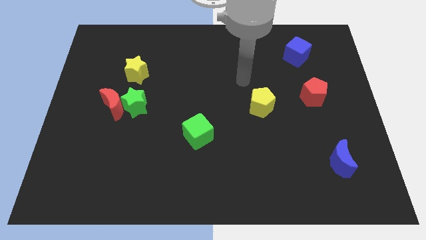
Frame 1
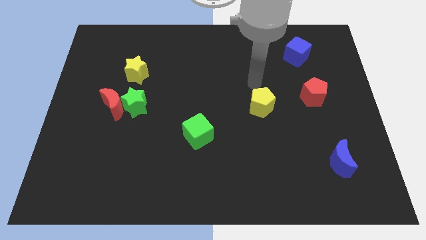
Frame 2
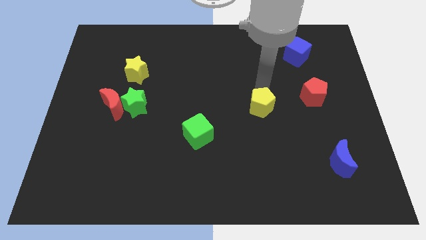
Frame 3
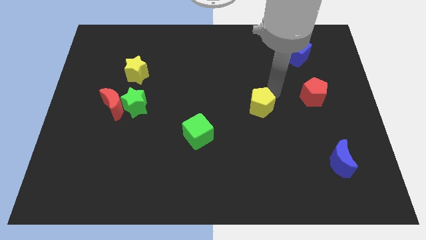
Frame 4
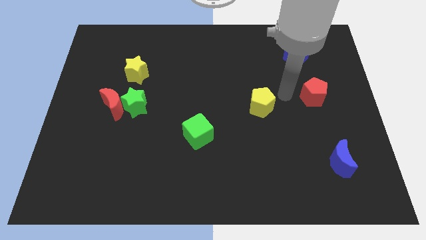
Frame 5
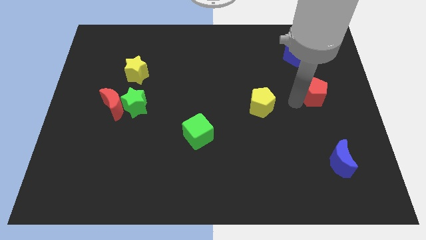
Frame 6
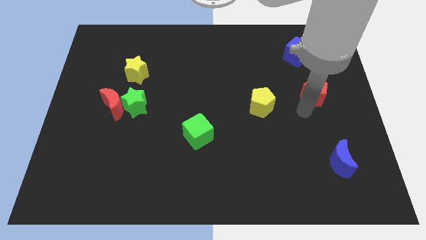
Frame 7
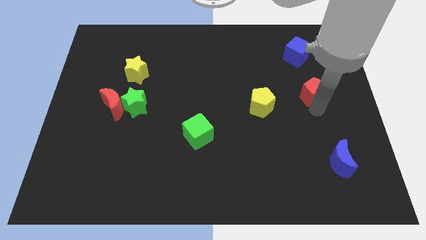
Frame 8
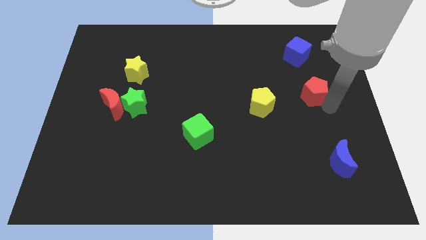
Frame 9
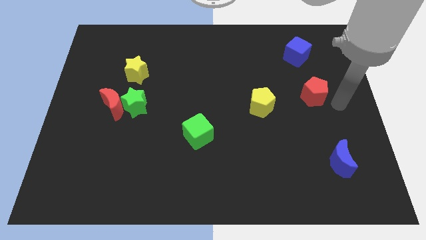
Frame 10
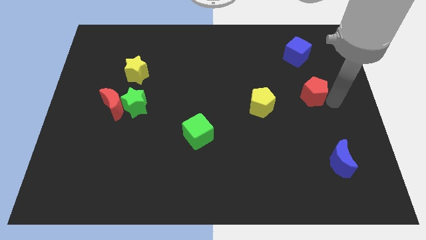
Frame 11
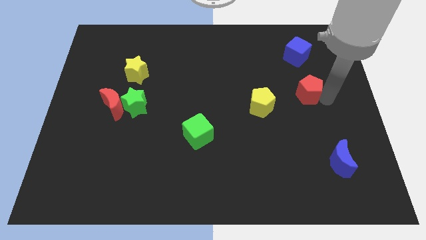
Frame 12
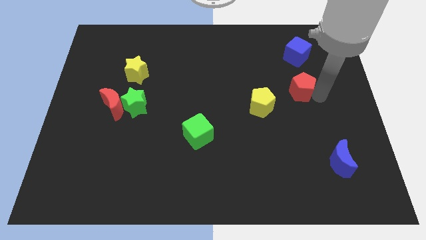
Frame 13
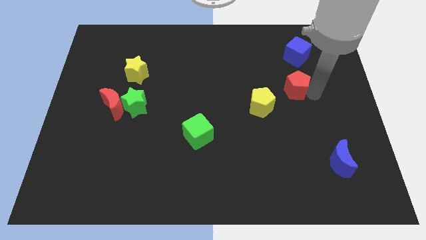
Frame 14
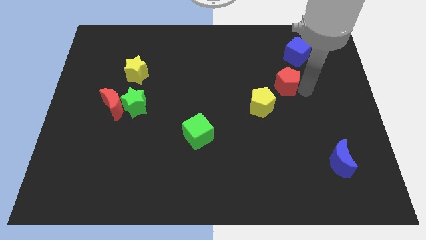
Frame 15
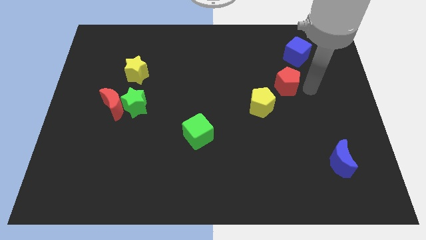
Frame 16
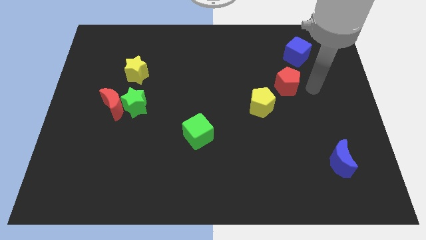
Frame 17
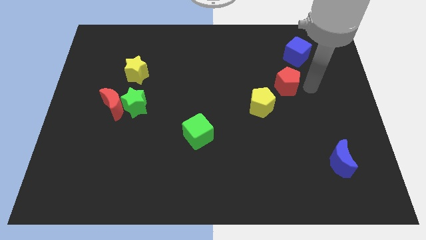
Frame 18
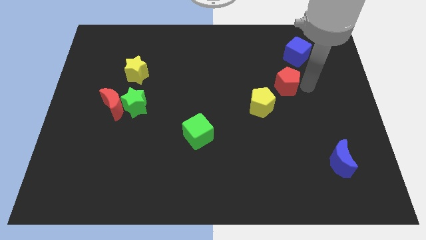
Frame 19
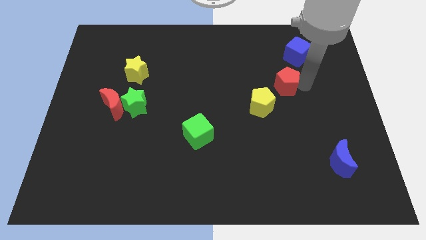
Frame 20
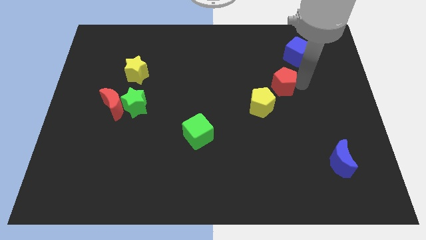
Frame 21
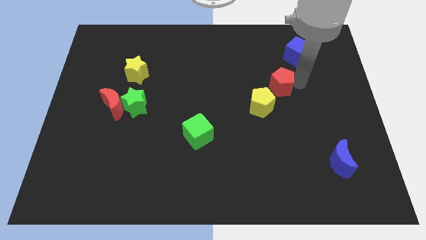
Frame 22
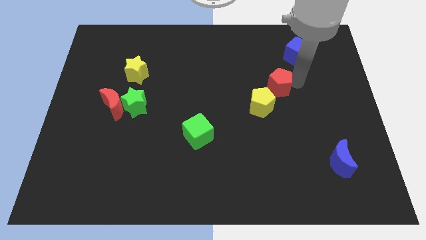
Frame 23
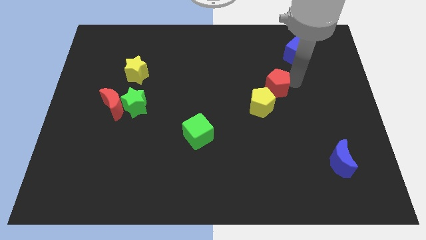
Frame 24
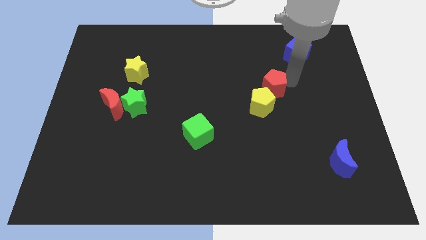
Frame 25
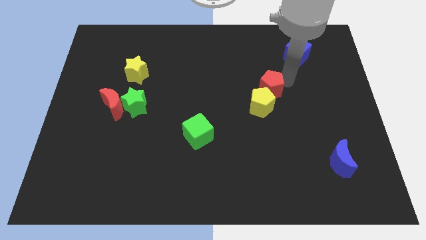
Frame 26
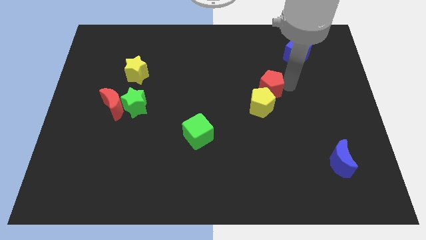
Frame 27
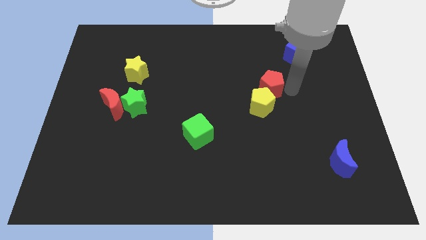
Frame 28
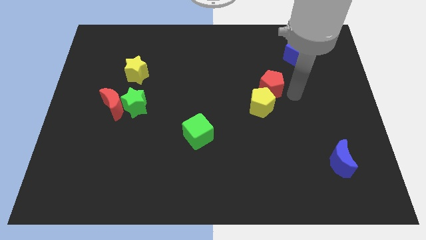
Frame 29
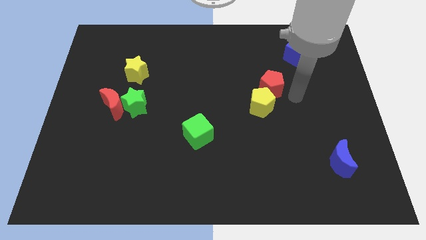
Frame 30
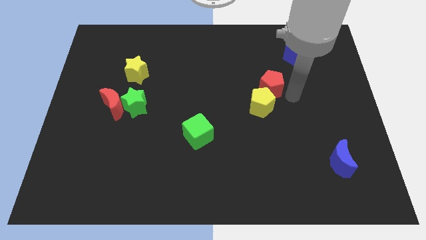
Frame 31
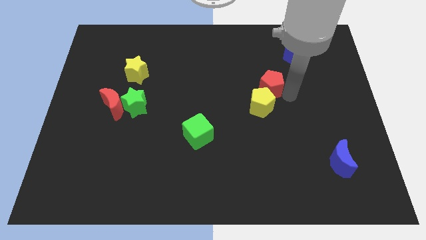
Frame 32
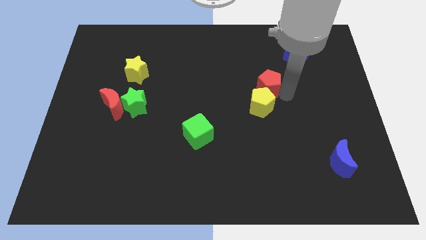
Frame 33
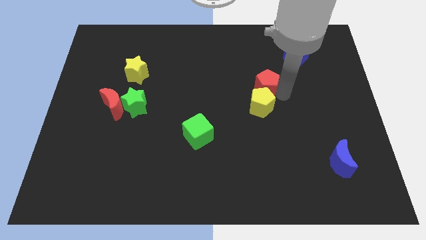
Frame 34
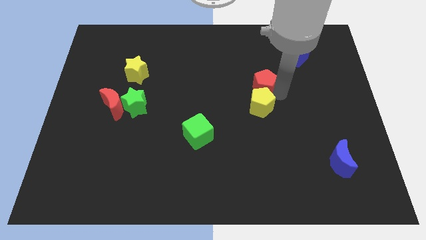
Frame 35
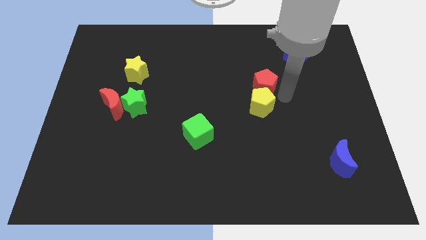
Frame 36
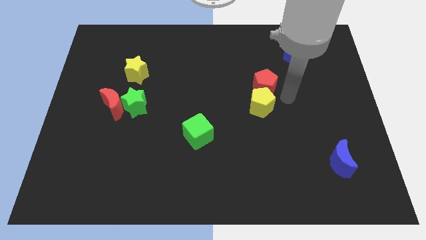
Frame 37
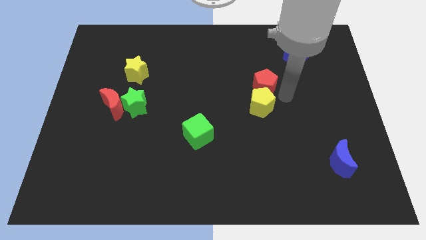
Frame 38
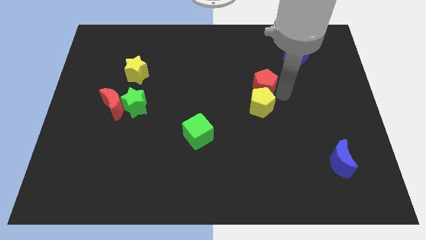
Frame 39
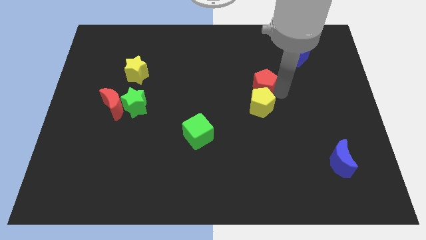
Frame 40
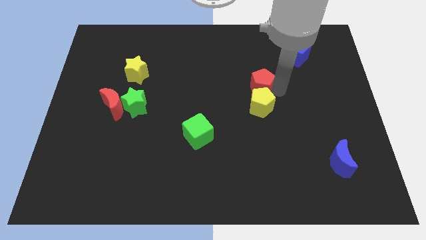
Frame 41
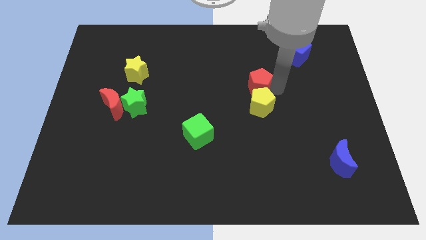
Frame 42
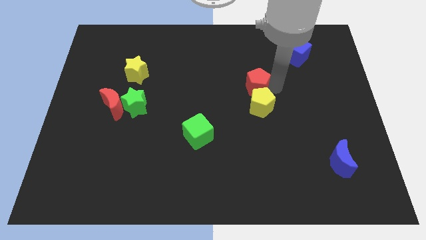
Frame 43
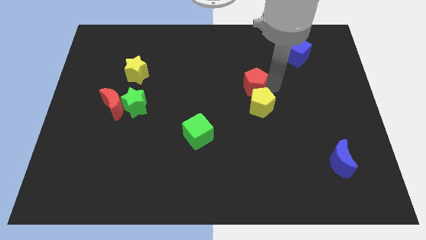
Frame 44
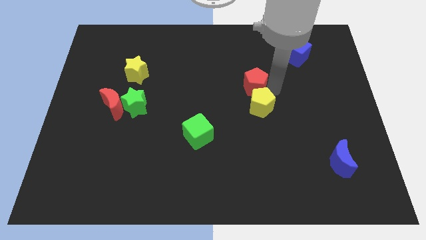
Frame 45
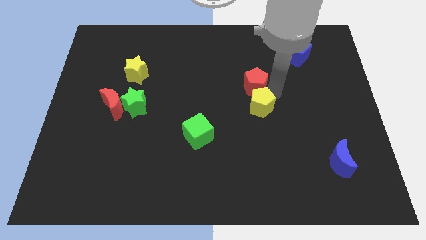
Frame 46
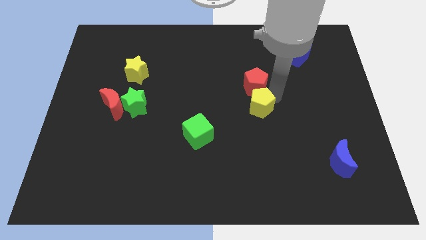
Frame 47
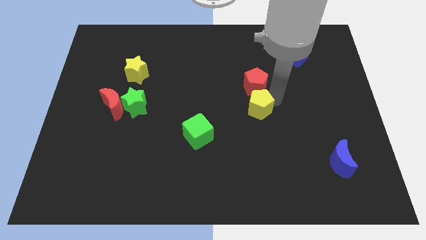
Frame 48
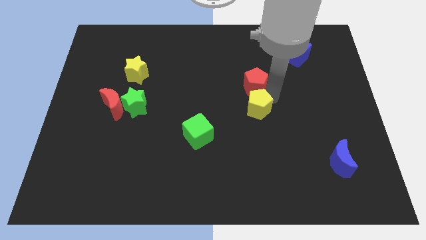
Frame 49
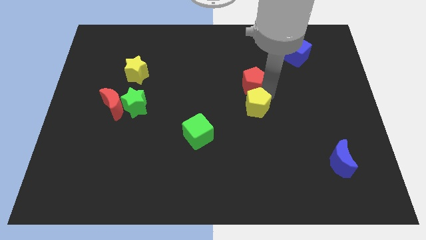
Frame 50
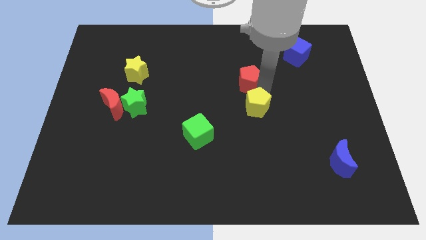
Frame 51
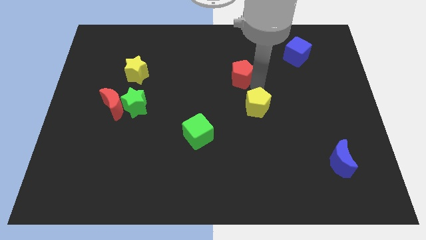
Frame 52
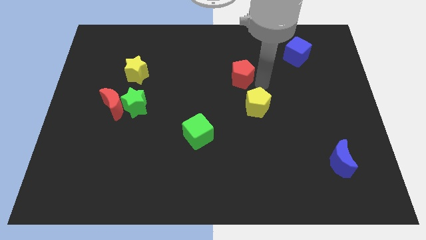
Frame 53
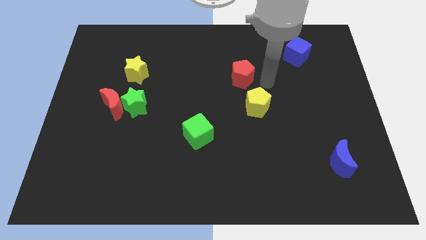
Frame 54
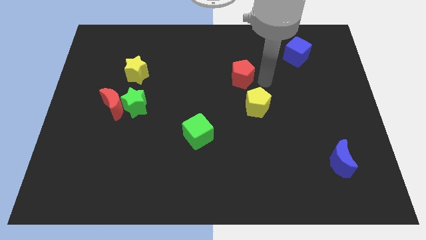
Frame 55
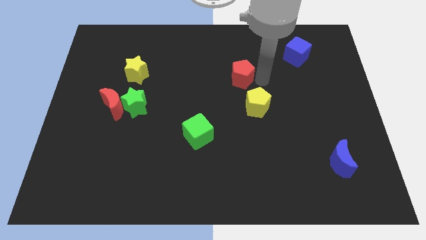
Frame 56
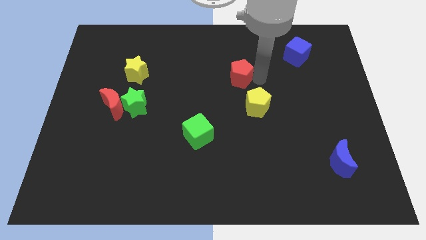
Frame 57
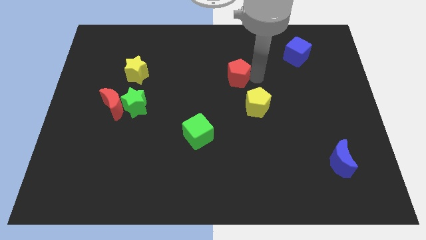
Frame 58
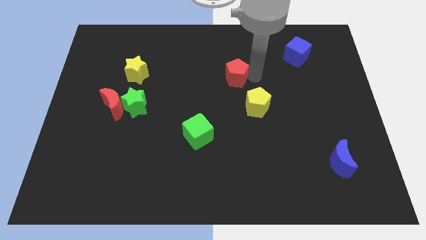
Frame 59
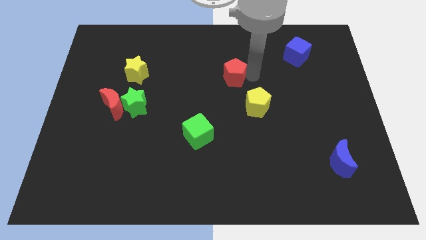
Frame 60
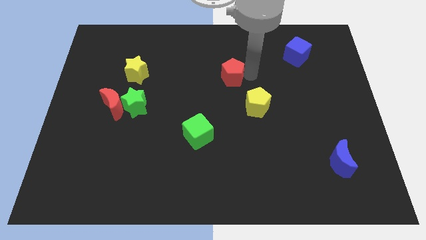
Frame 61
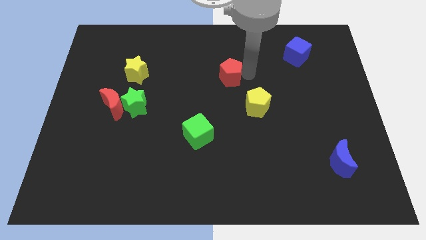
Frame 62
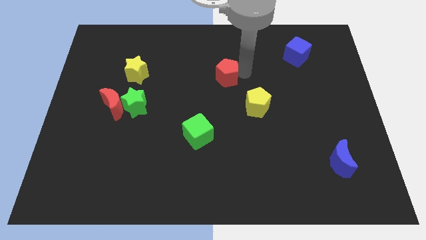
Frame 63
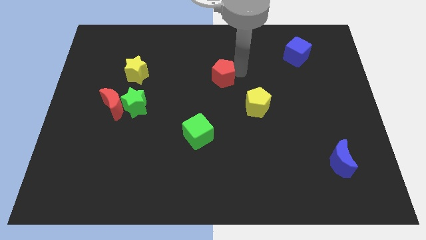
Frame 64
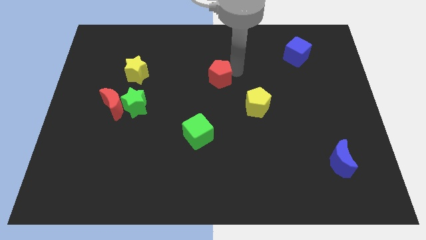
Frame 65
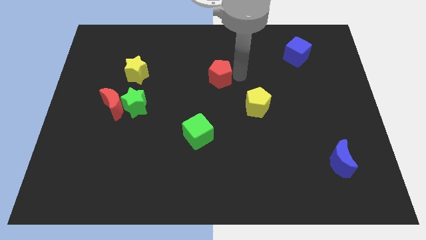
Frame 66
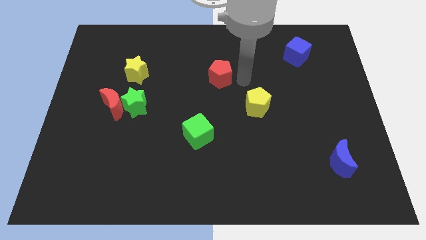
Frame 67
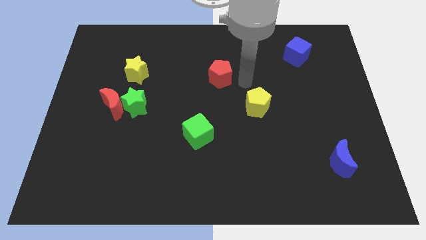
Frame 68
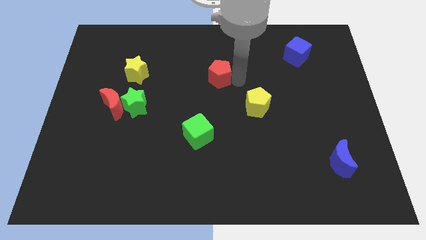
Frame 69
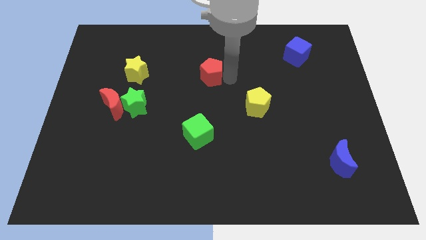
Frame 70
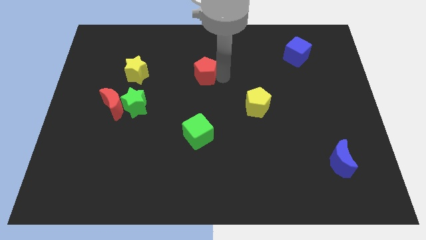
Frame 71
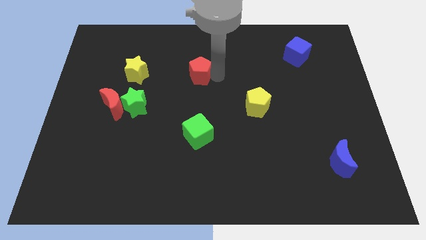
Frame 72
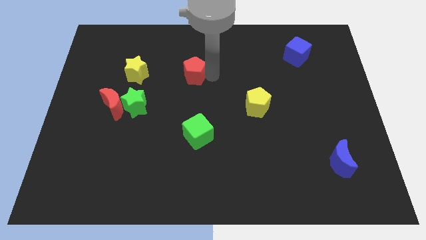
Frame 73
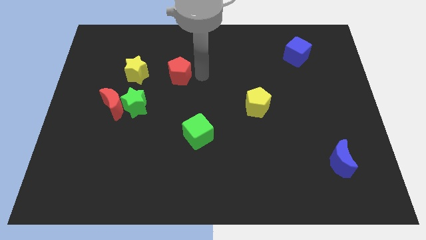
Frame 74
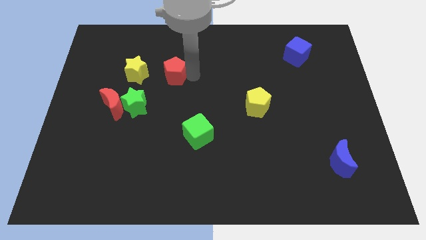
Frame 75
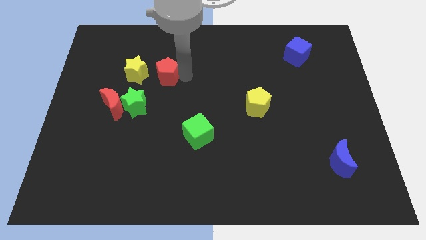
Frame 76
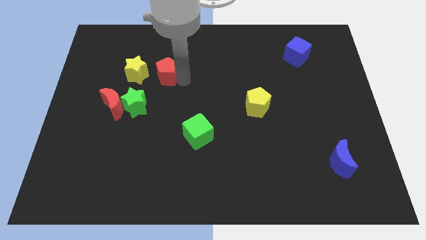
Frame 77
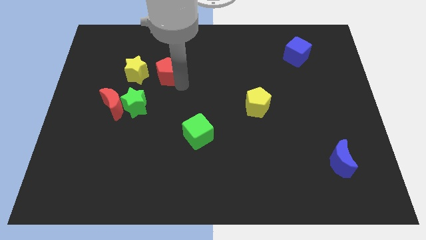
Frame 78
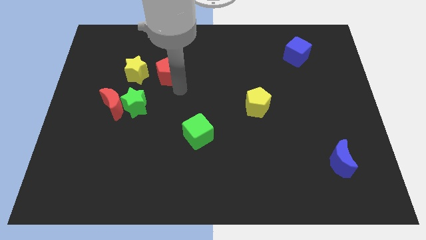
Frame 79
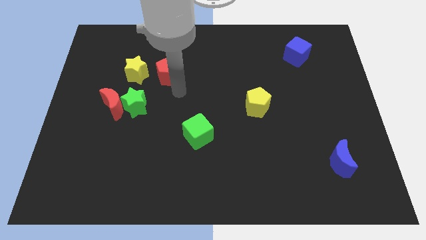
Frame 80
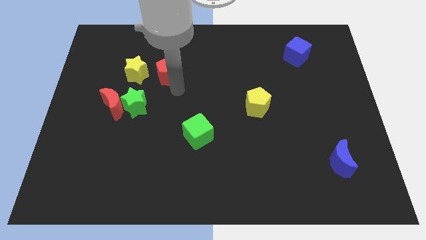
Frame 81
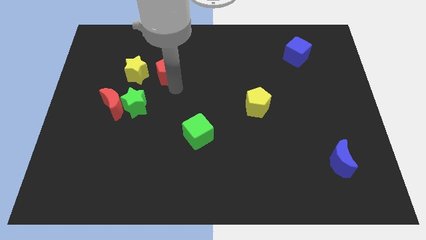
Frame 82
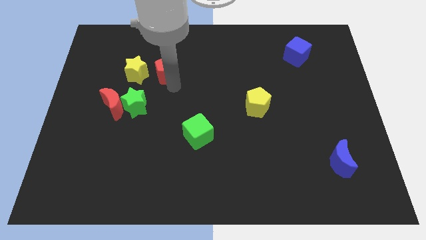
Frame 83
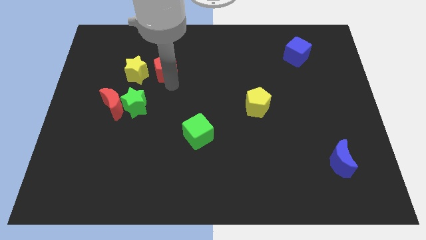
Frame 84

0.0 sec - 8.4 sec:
slide the red pentagon to the top right side of the yellow star
